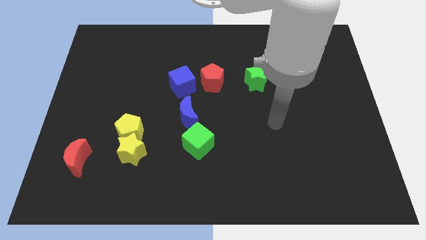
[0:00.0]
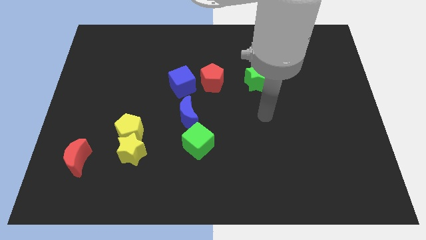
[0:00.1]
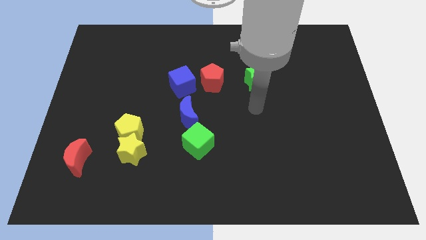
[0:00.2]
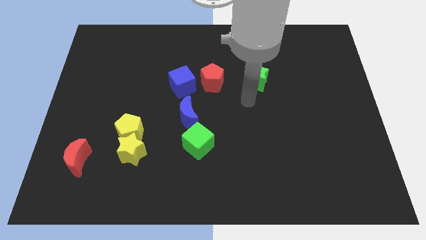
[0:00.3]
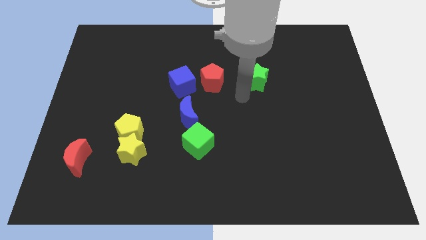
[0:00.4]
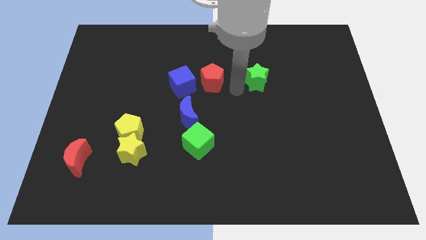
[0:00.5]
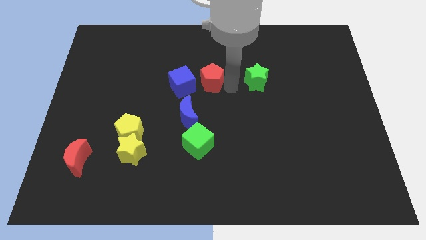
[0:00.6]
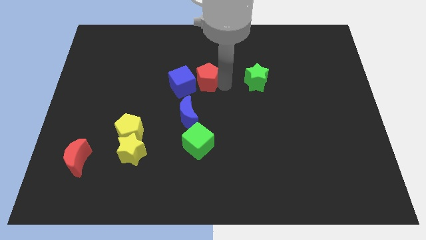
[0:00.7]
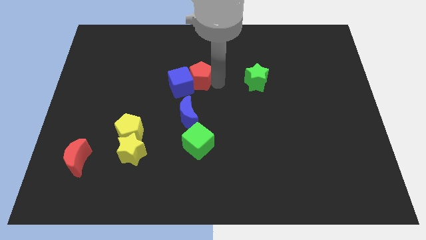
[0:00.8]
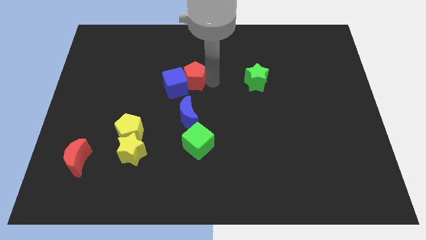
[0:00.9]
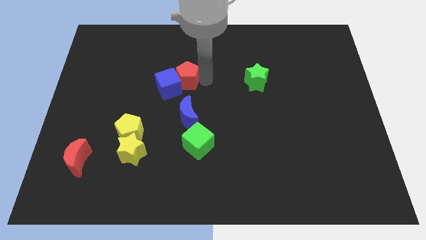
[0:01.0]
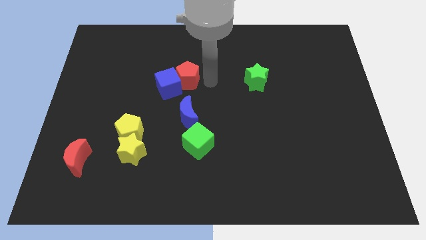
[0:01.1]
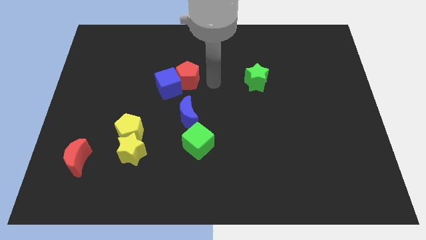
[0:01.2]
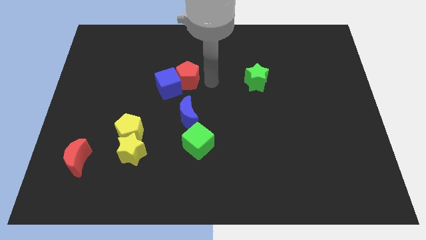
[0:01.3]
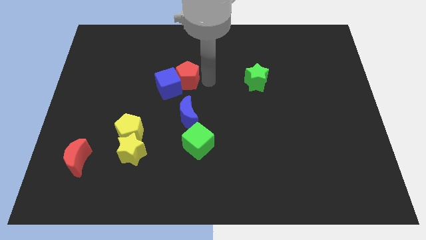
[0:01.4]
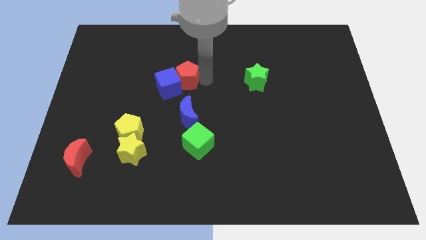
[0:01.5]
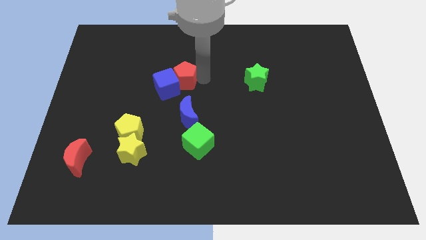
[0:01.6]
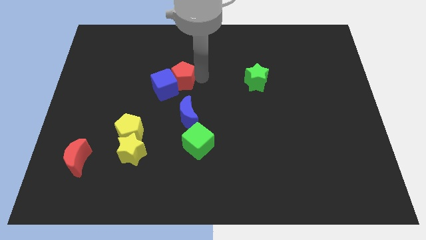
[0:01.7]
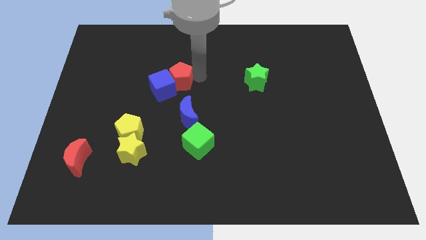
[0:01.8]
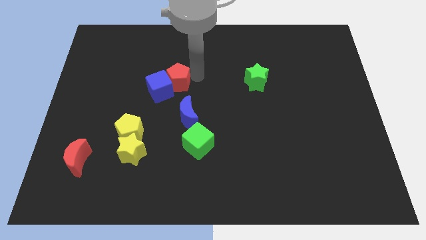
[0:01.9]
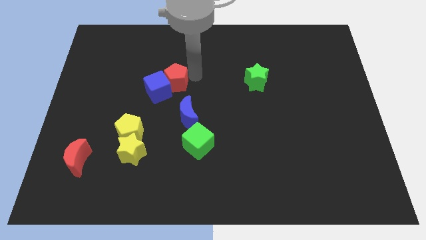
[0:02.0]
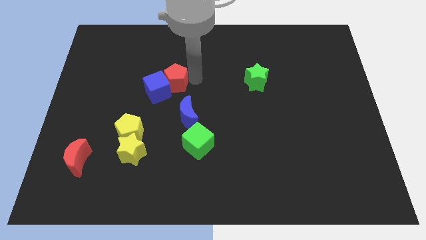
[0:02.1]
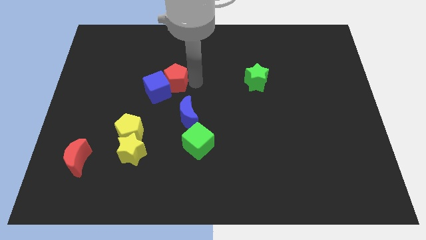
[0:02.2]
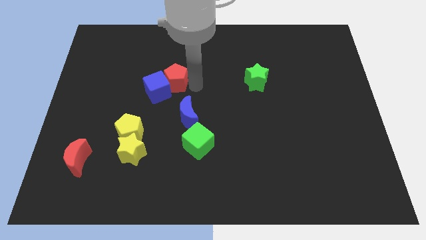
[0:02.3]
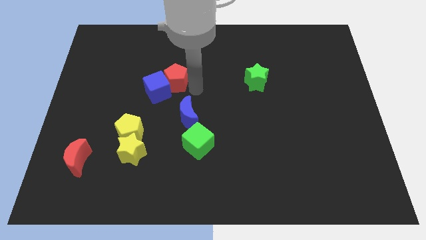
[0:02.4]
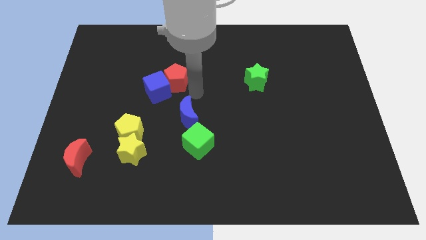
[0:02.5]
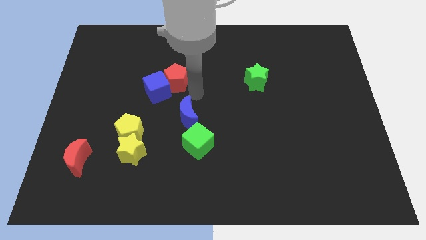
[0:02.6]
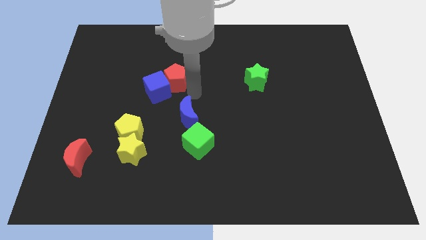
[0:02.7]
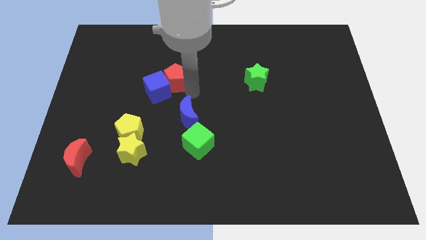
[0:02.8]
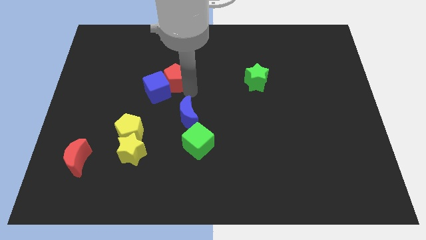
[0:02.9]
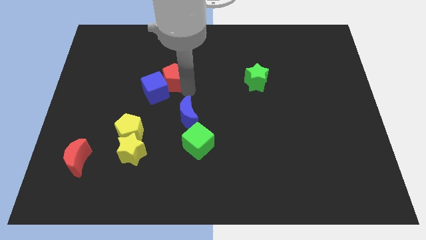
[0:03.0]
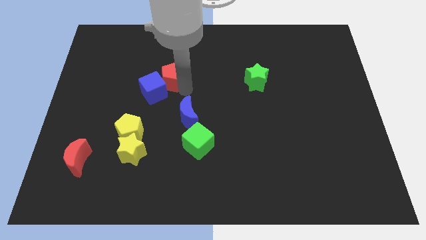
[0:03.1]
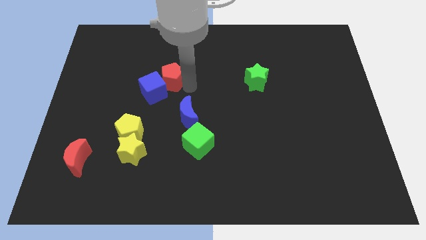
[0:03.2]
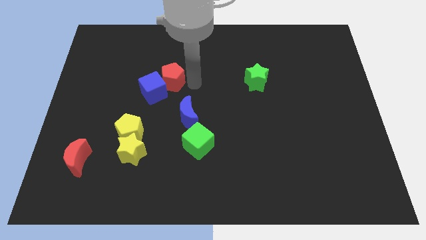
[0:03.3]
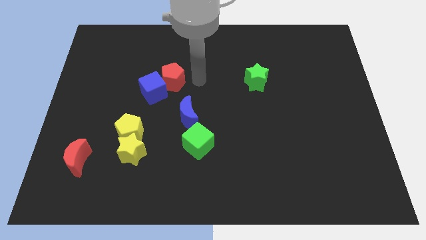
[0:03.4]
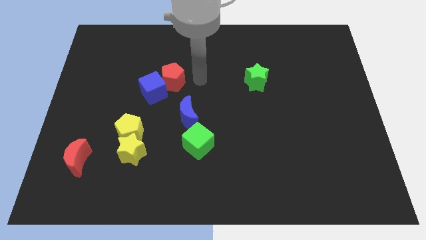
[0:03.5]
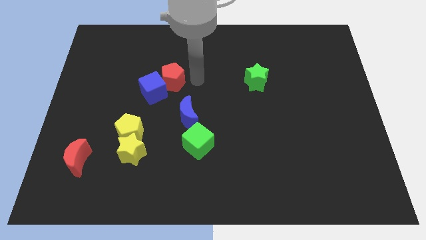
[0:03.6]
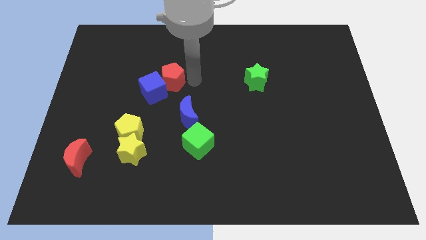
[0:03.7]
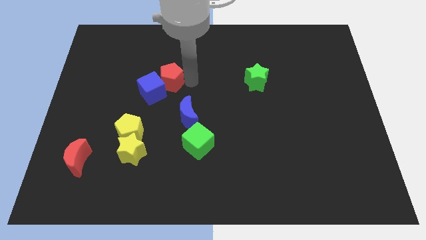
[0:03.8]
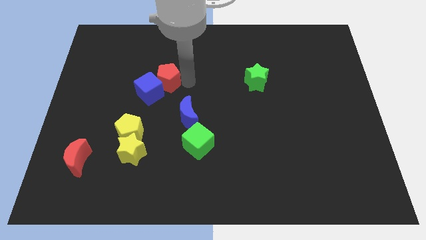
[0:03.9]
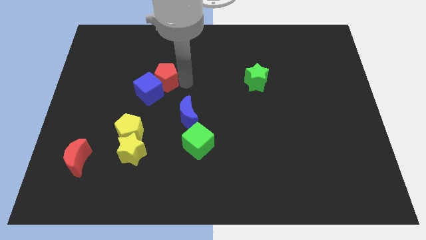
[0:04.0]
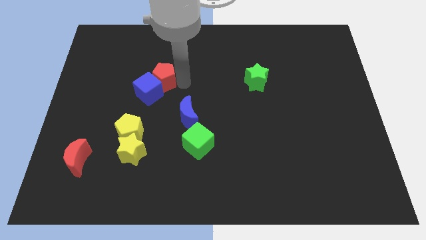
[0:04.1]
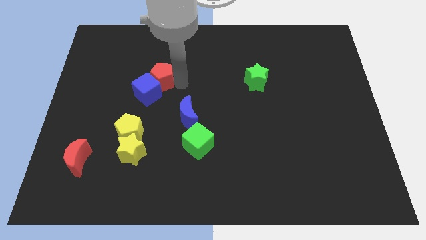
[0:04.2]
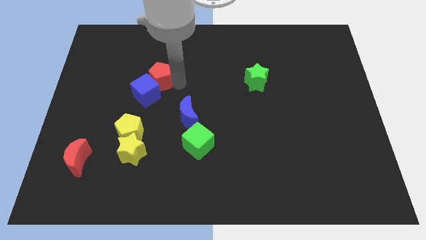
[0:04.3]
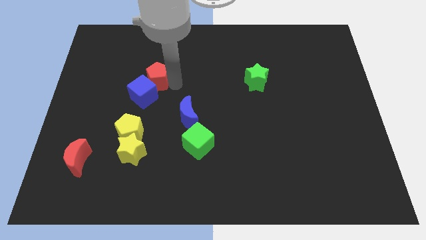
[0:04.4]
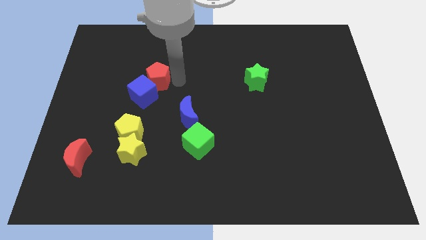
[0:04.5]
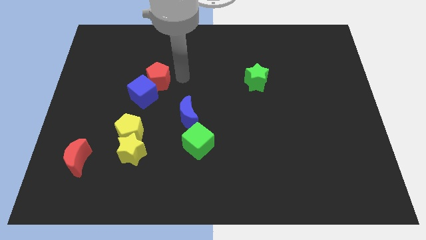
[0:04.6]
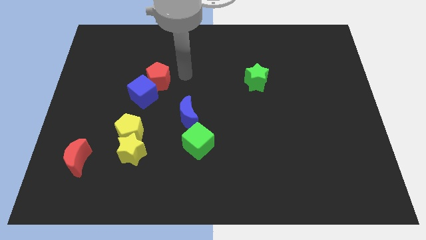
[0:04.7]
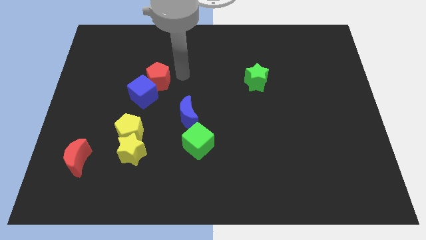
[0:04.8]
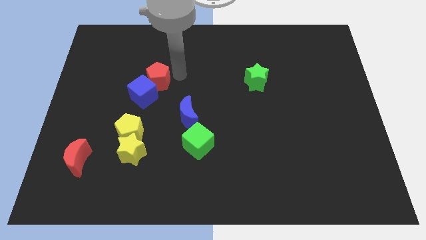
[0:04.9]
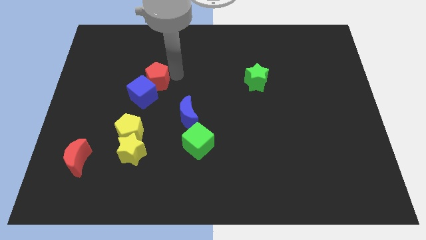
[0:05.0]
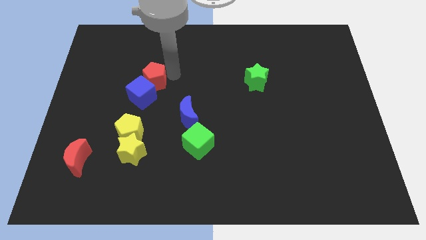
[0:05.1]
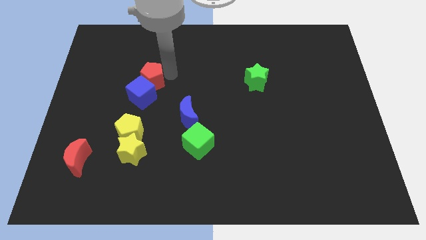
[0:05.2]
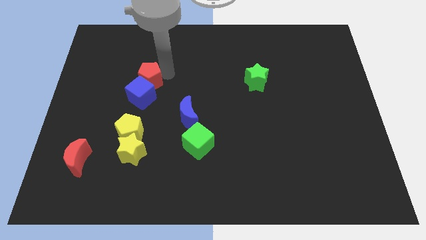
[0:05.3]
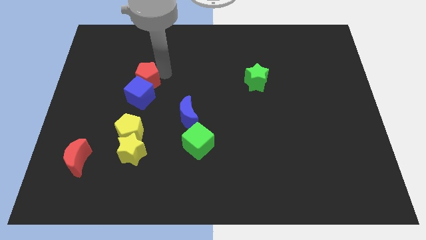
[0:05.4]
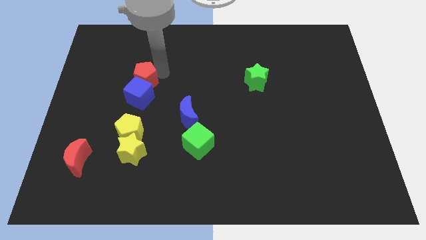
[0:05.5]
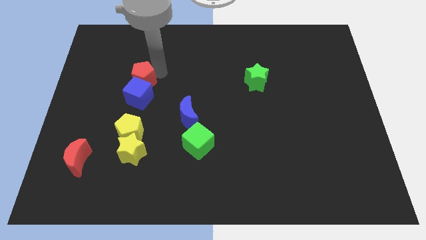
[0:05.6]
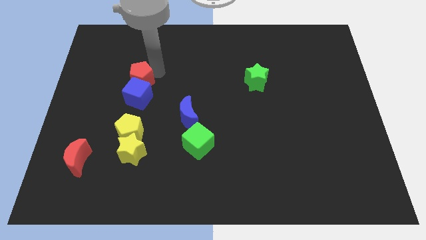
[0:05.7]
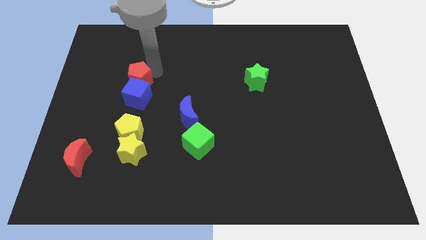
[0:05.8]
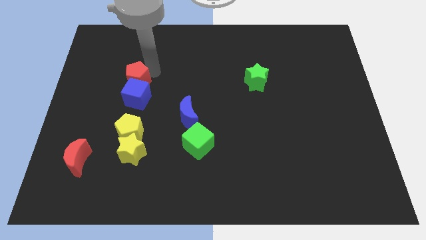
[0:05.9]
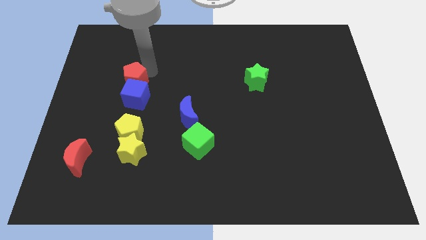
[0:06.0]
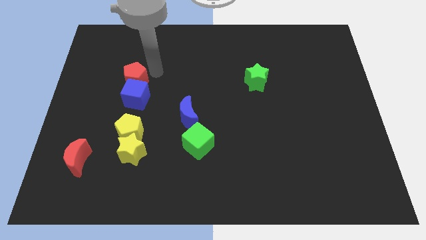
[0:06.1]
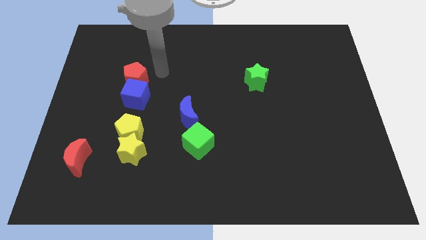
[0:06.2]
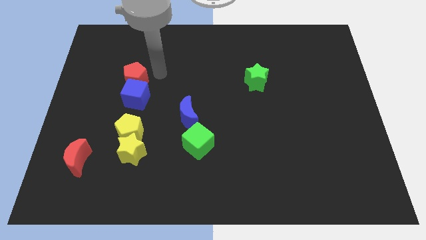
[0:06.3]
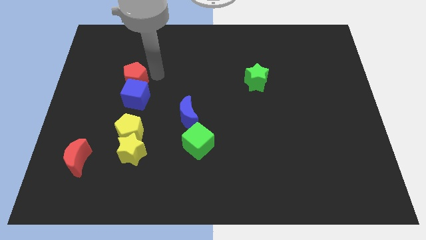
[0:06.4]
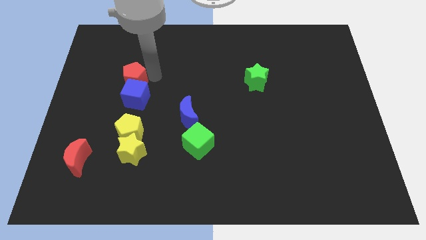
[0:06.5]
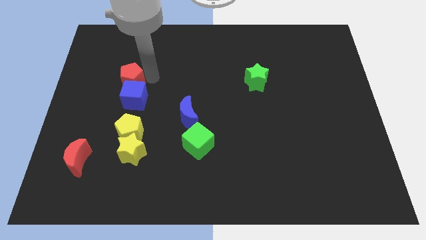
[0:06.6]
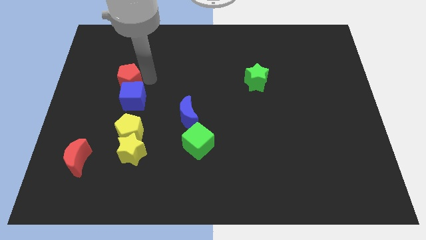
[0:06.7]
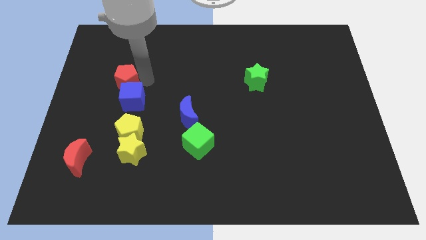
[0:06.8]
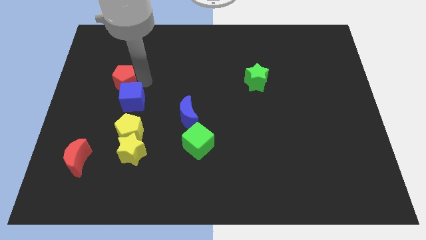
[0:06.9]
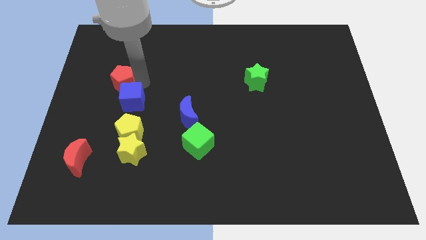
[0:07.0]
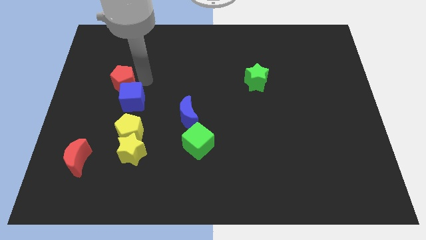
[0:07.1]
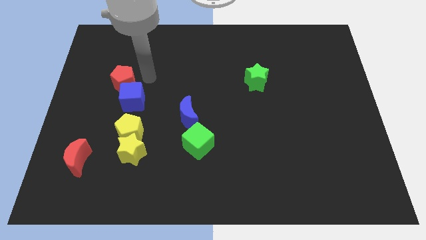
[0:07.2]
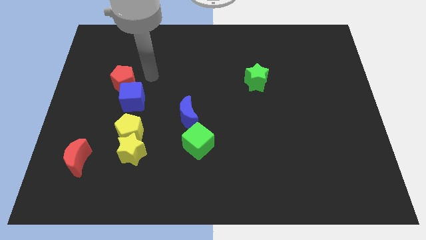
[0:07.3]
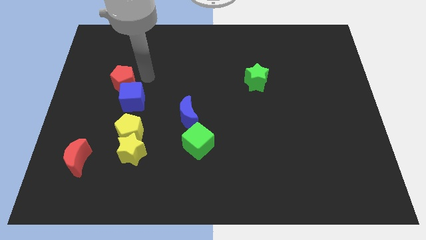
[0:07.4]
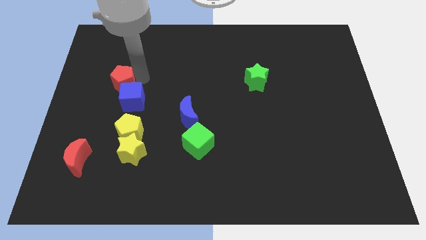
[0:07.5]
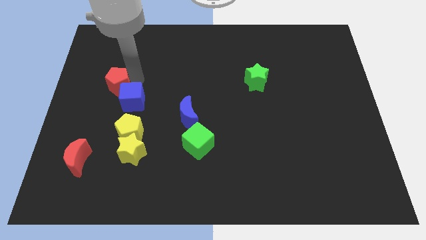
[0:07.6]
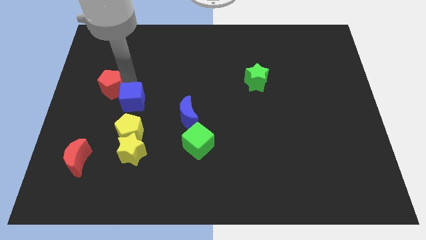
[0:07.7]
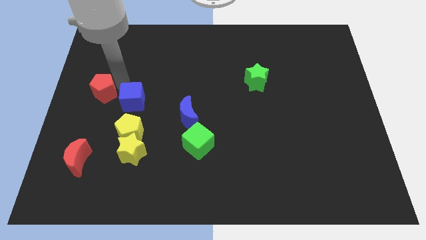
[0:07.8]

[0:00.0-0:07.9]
push the red pentagon to the left side
